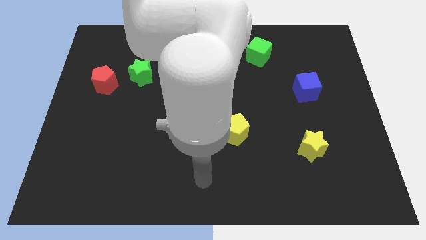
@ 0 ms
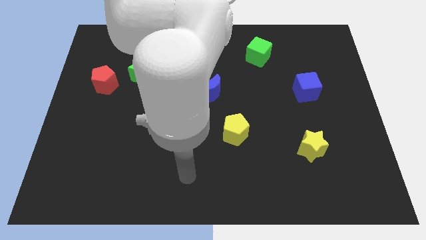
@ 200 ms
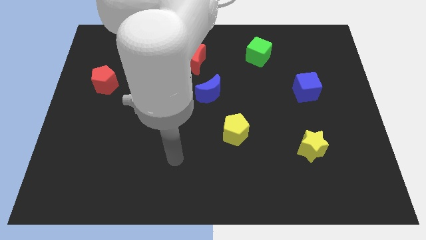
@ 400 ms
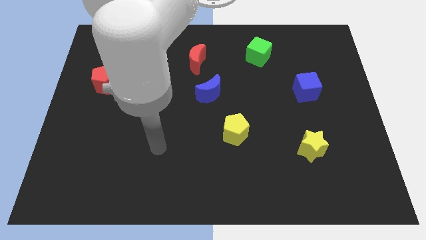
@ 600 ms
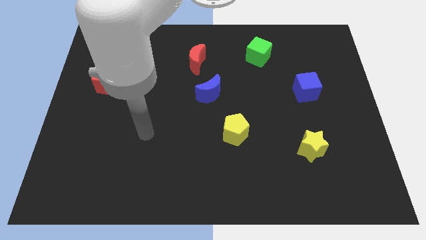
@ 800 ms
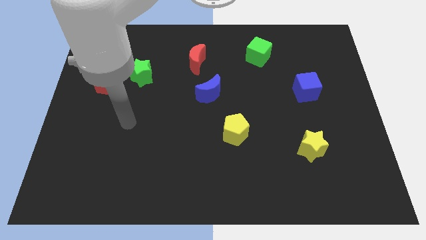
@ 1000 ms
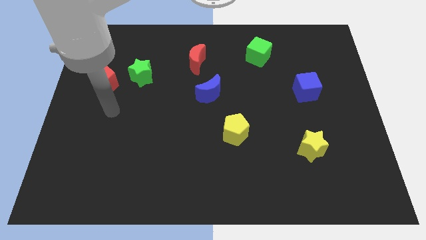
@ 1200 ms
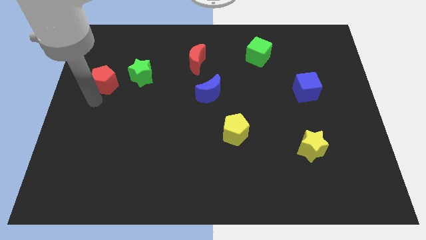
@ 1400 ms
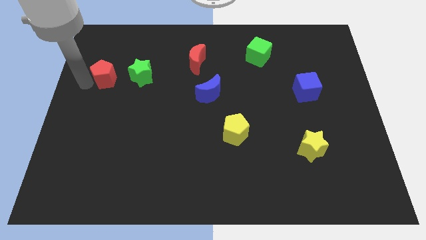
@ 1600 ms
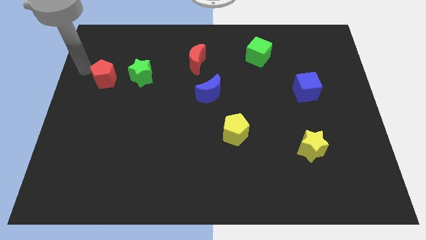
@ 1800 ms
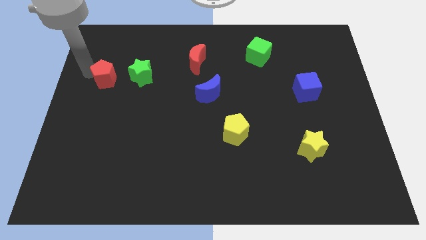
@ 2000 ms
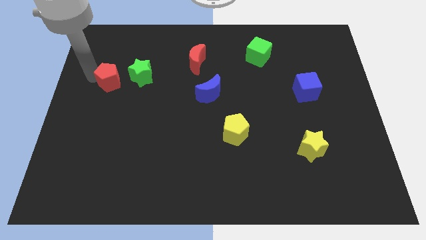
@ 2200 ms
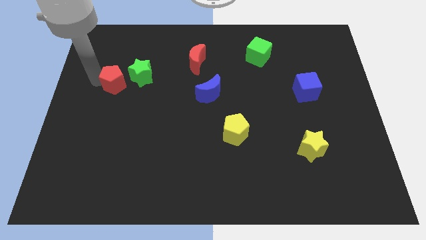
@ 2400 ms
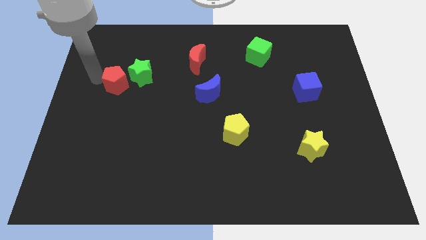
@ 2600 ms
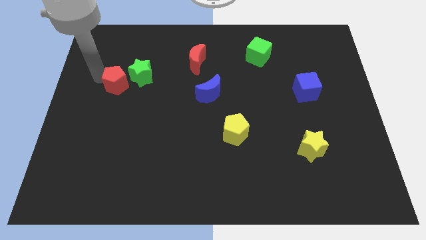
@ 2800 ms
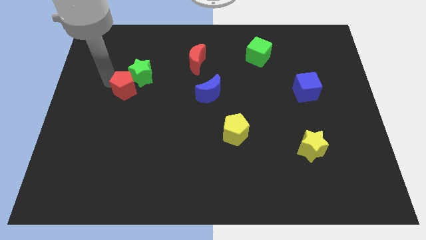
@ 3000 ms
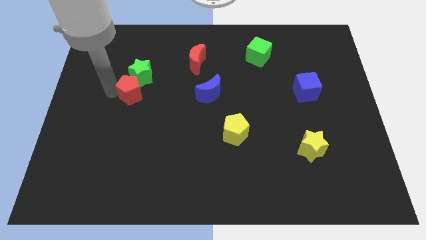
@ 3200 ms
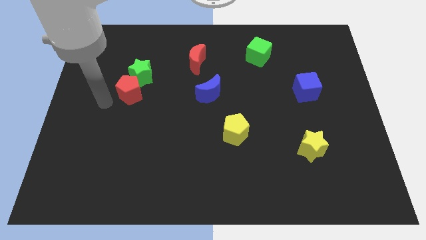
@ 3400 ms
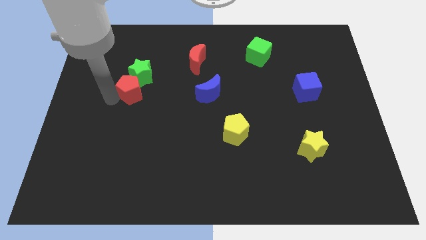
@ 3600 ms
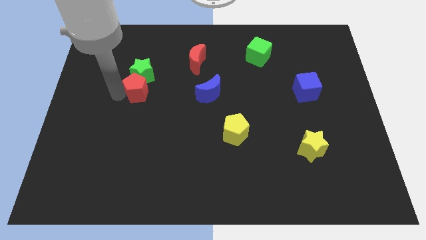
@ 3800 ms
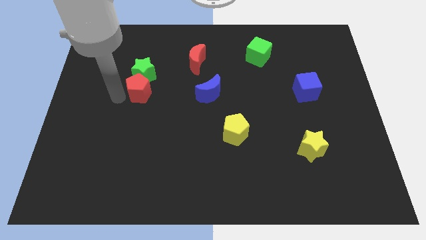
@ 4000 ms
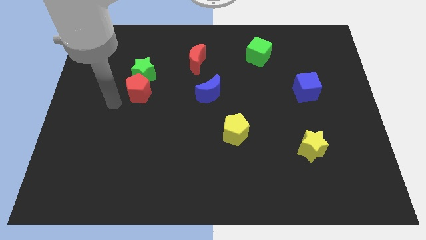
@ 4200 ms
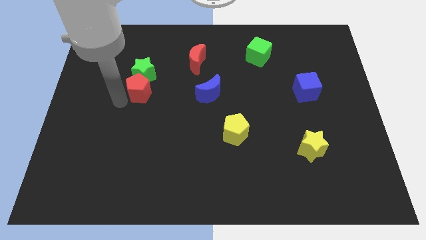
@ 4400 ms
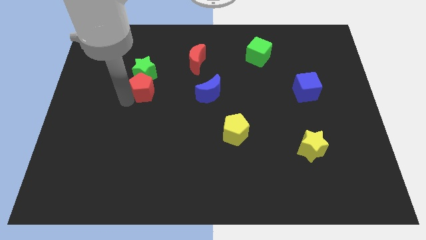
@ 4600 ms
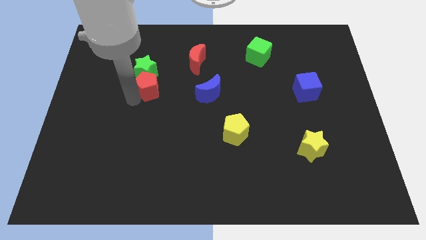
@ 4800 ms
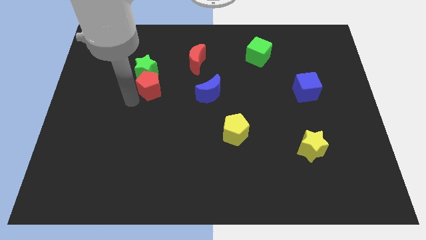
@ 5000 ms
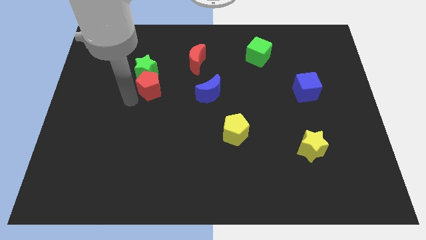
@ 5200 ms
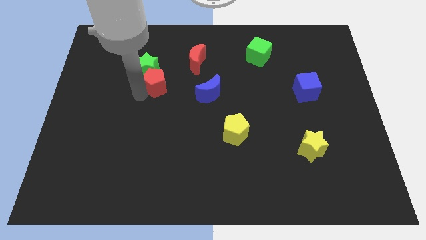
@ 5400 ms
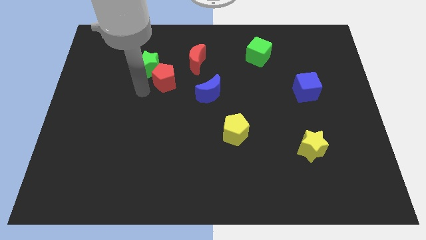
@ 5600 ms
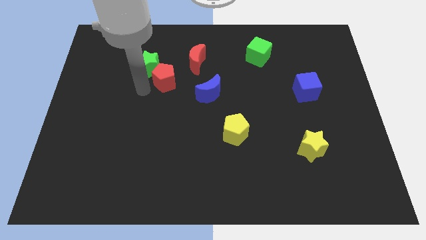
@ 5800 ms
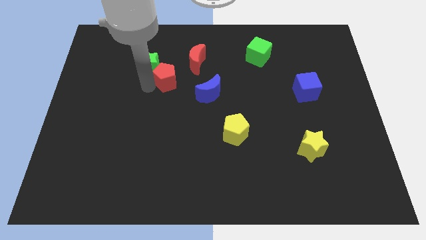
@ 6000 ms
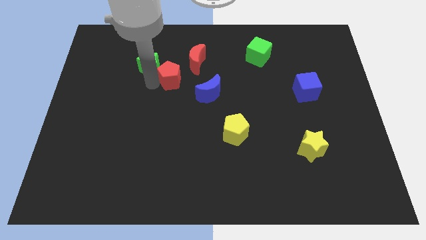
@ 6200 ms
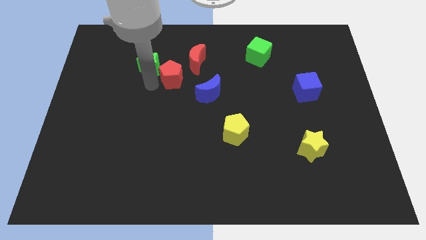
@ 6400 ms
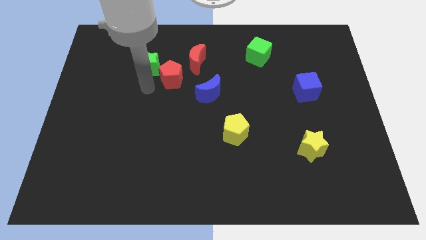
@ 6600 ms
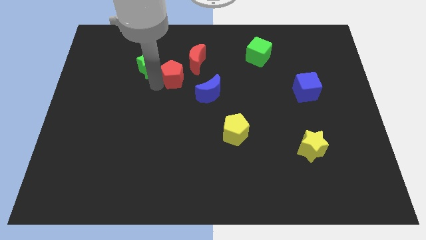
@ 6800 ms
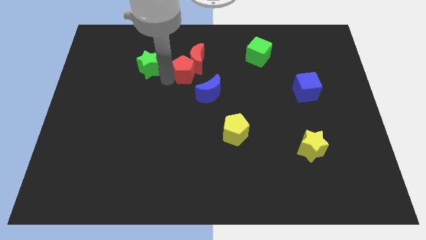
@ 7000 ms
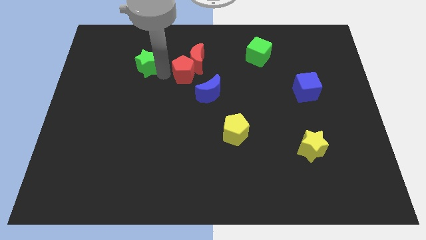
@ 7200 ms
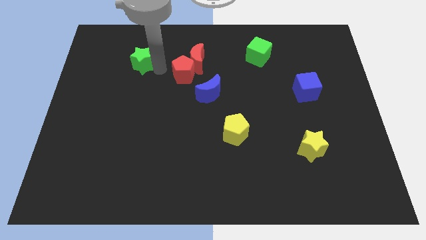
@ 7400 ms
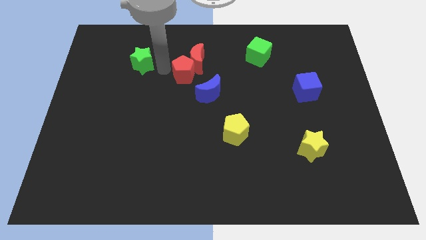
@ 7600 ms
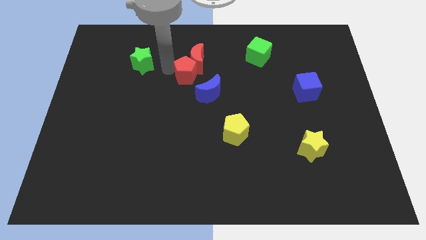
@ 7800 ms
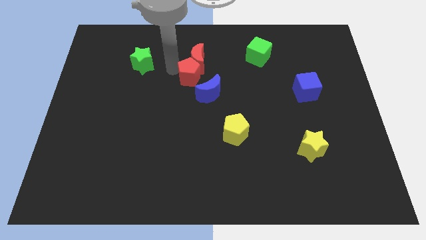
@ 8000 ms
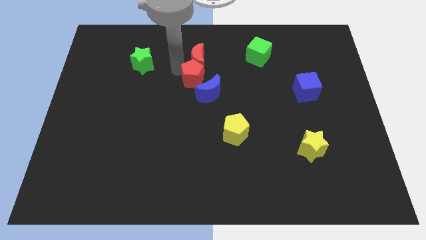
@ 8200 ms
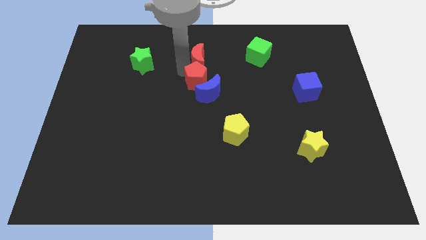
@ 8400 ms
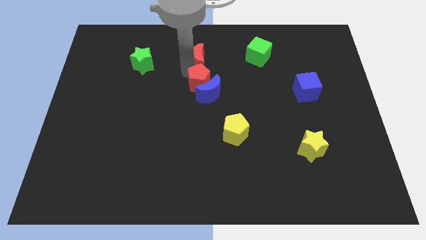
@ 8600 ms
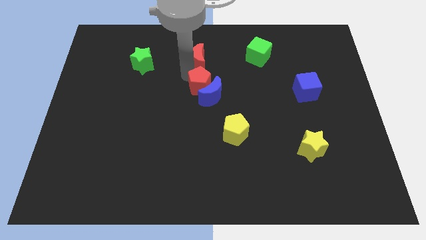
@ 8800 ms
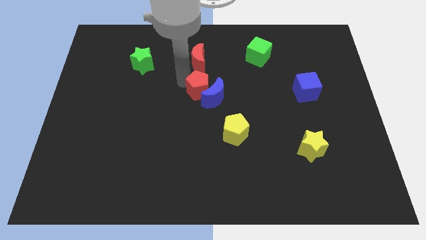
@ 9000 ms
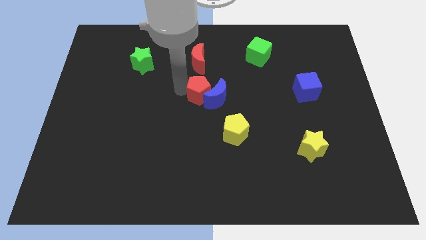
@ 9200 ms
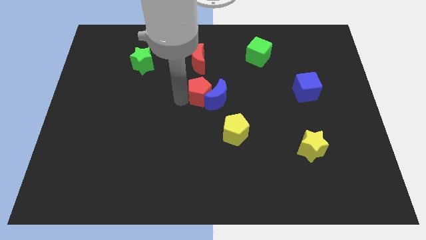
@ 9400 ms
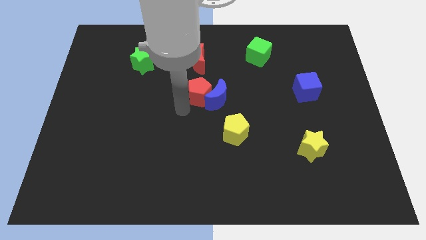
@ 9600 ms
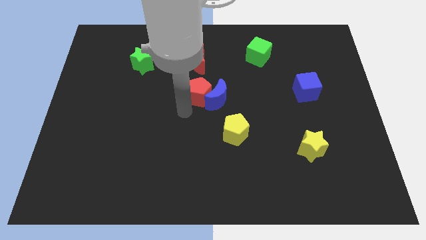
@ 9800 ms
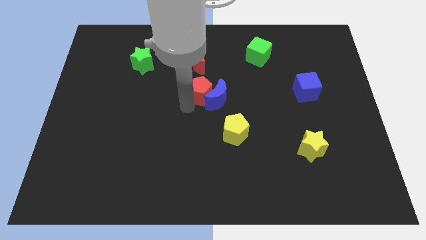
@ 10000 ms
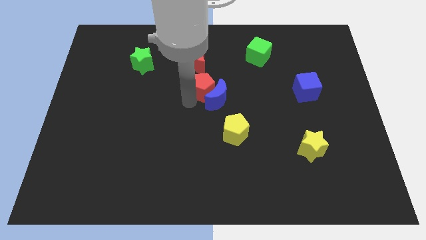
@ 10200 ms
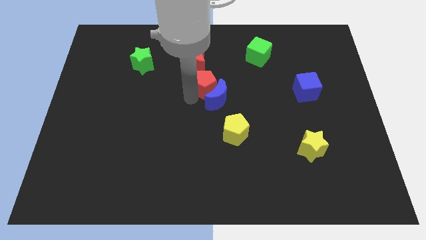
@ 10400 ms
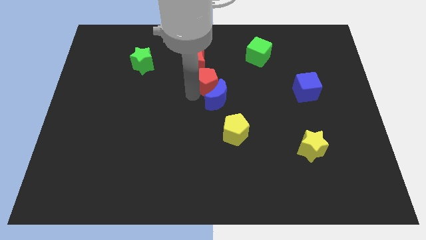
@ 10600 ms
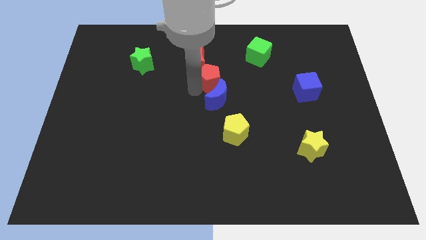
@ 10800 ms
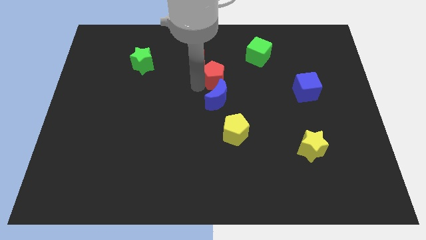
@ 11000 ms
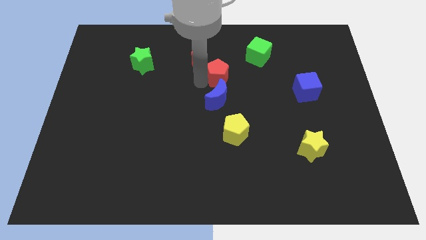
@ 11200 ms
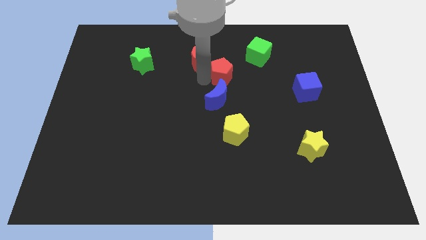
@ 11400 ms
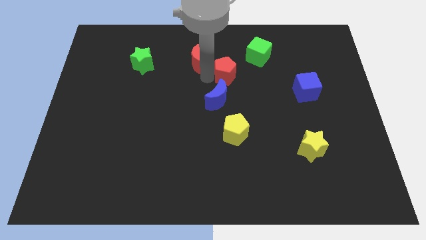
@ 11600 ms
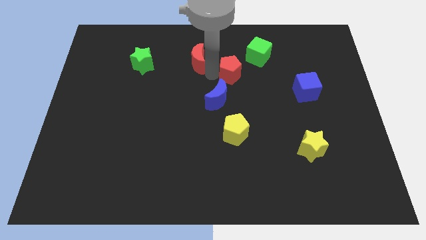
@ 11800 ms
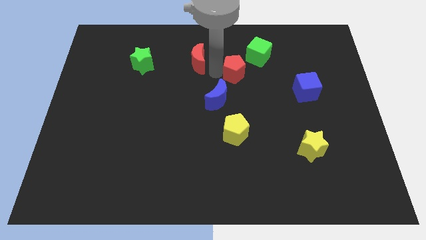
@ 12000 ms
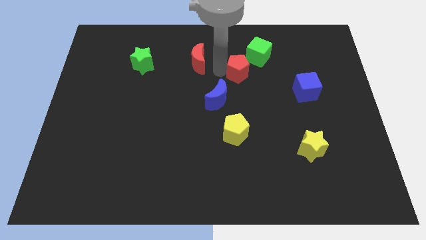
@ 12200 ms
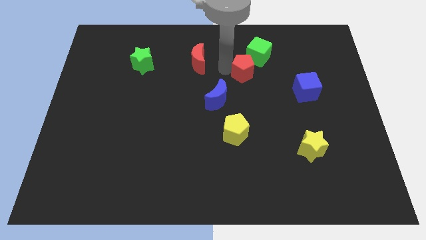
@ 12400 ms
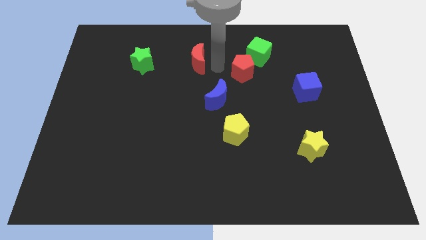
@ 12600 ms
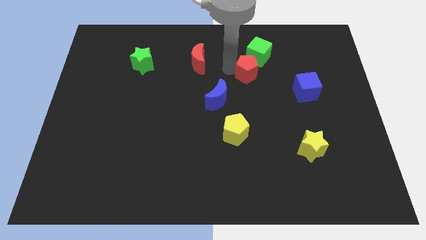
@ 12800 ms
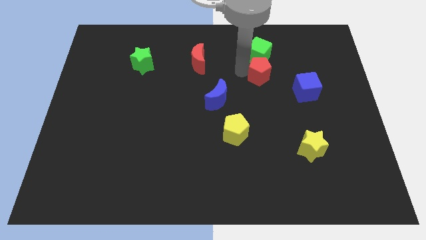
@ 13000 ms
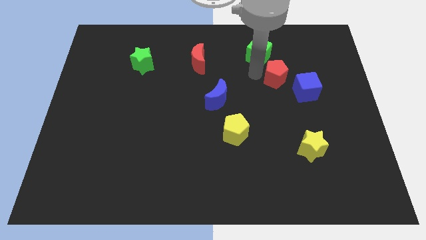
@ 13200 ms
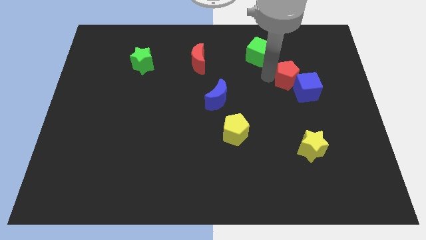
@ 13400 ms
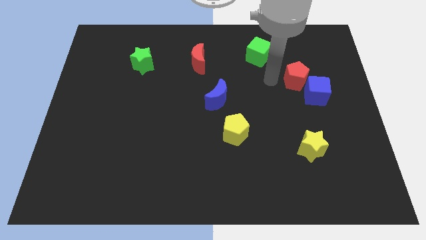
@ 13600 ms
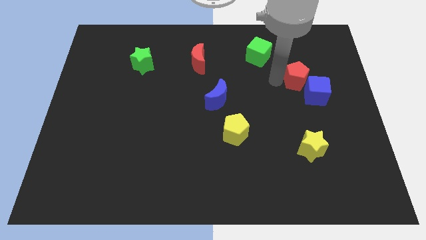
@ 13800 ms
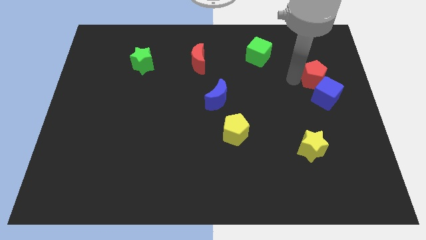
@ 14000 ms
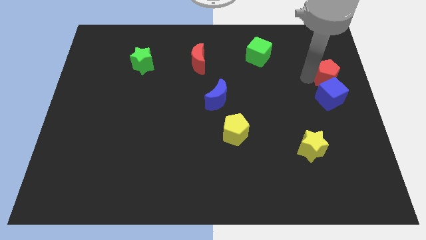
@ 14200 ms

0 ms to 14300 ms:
move the red pentagon to the top right side of the blue cube
